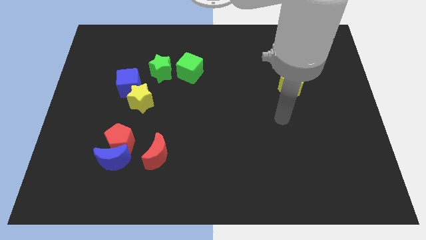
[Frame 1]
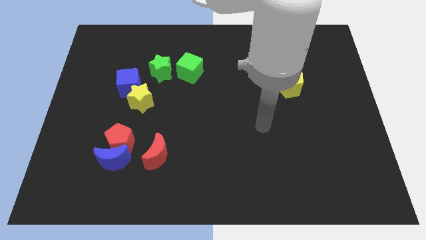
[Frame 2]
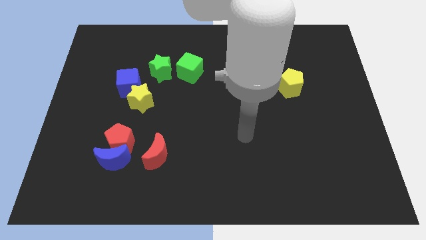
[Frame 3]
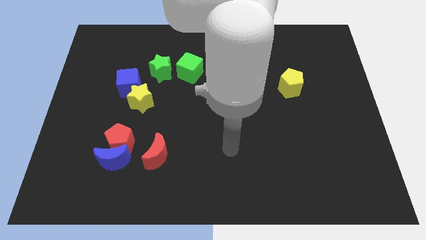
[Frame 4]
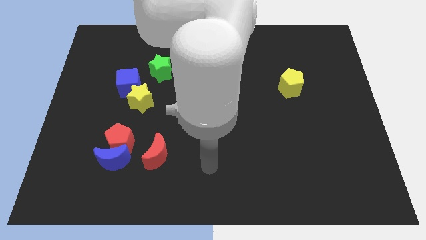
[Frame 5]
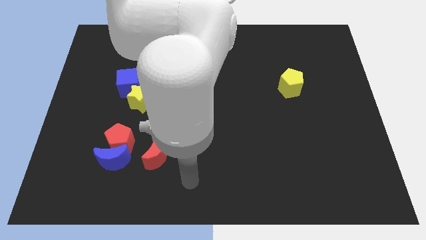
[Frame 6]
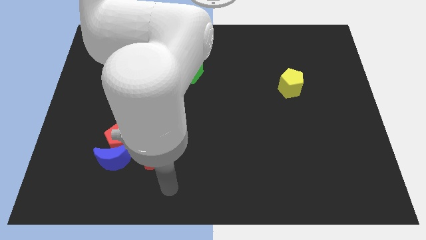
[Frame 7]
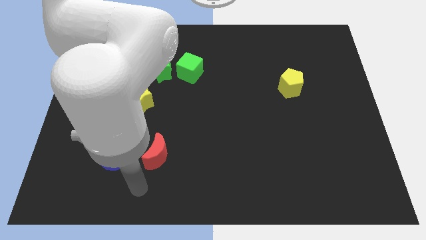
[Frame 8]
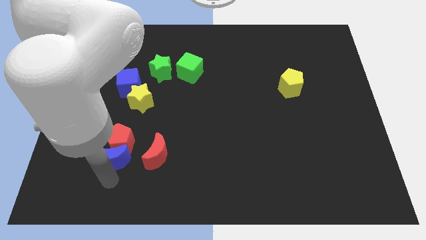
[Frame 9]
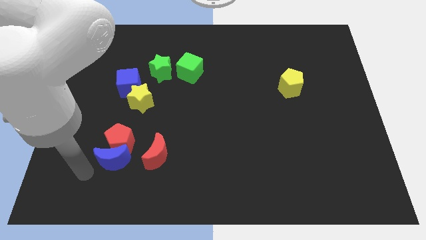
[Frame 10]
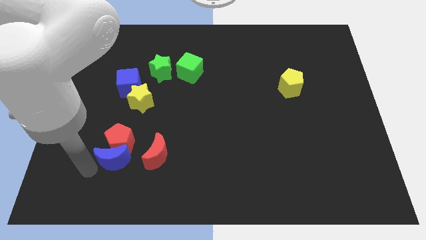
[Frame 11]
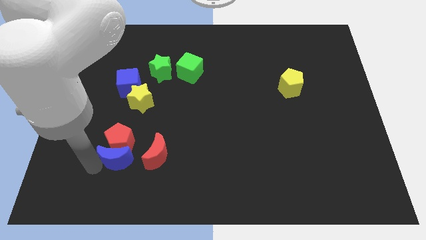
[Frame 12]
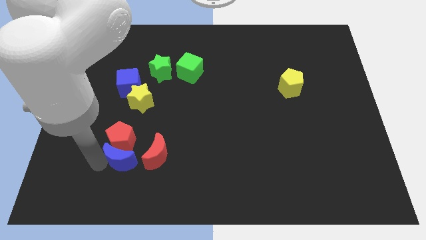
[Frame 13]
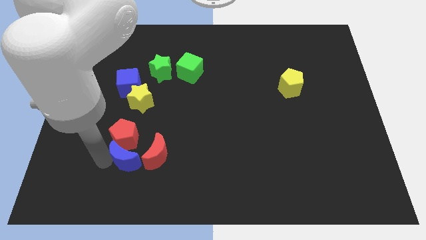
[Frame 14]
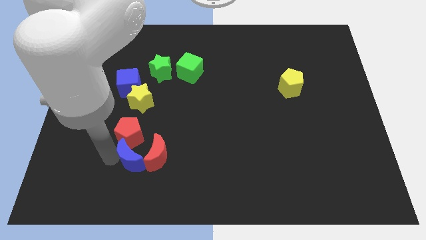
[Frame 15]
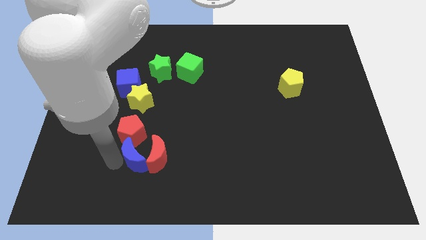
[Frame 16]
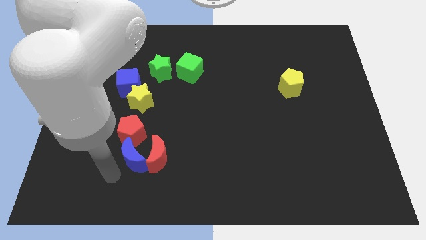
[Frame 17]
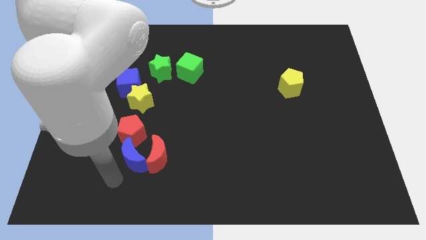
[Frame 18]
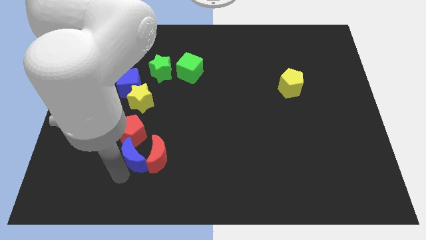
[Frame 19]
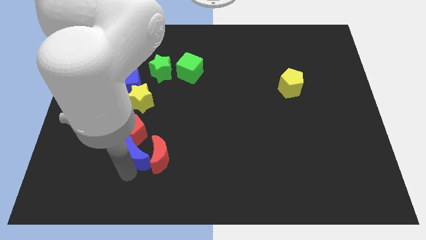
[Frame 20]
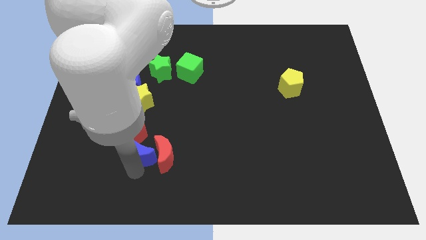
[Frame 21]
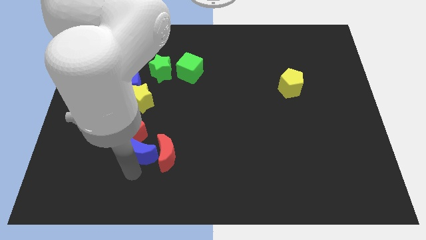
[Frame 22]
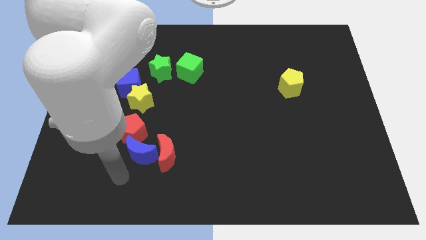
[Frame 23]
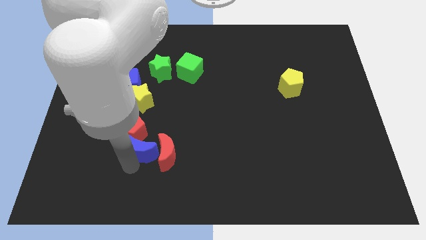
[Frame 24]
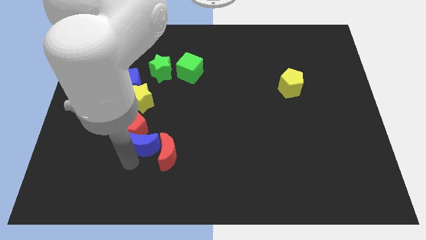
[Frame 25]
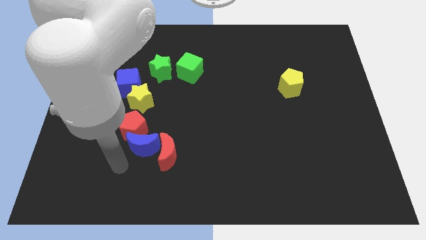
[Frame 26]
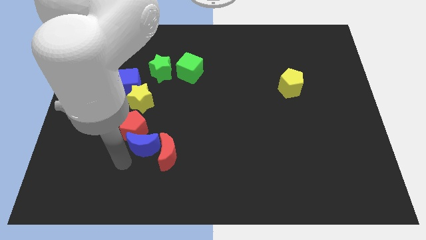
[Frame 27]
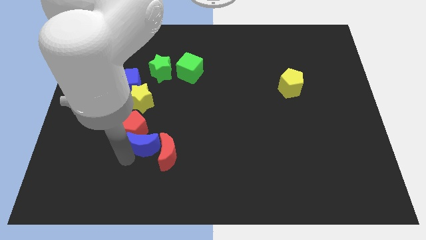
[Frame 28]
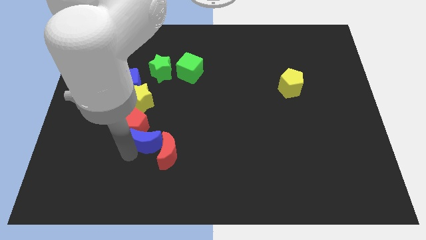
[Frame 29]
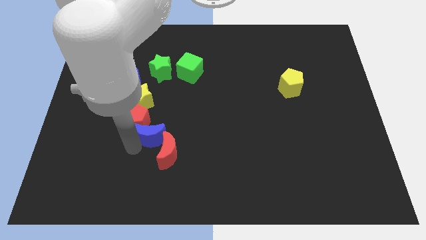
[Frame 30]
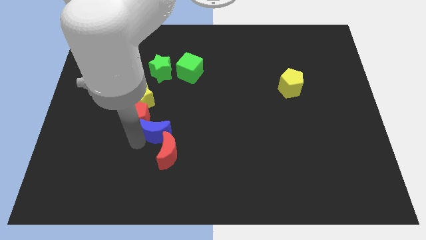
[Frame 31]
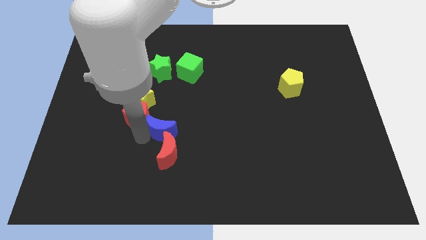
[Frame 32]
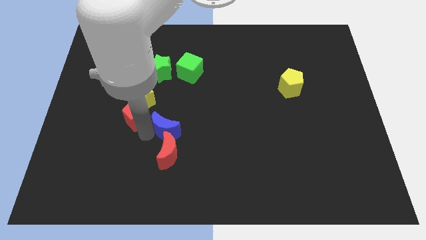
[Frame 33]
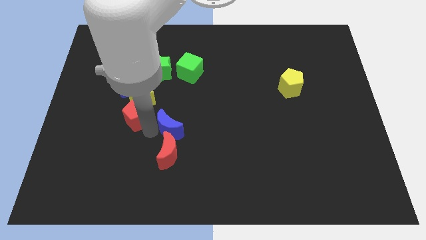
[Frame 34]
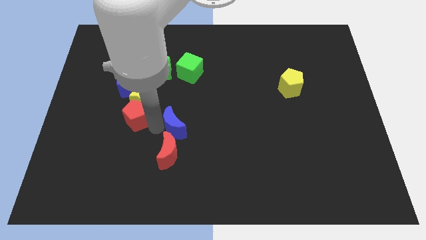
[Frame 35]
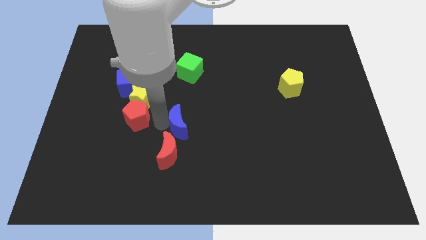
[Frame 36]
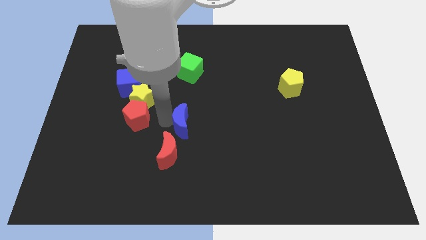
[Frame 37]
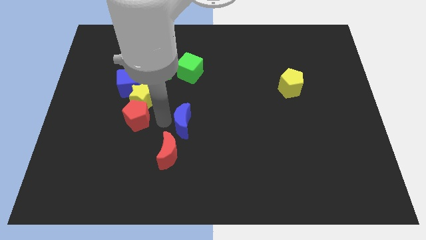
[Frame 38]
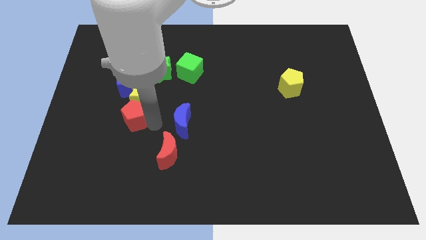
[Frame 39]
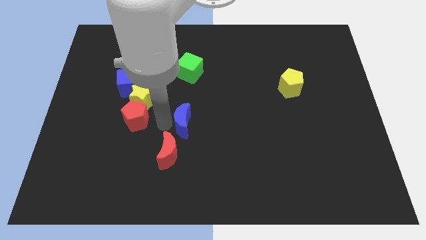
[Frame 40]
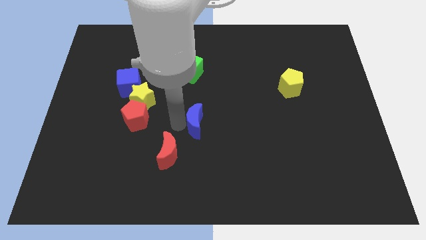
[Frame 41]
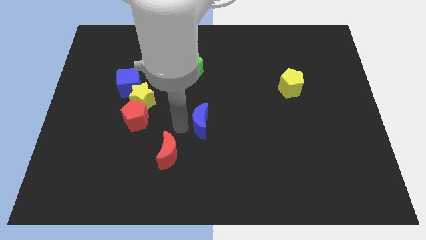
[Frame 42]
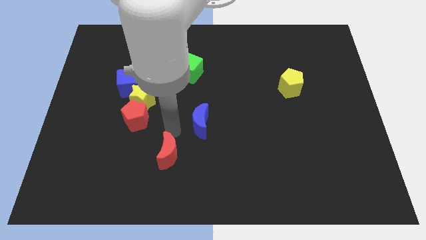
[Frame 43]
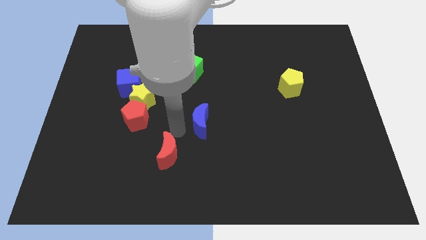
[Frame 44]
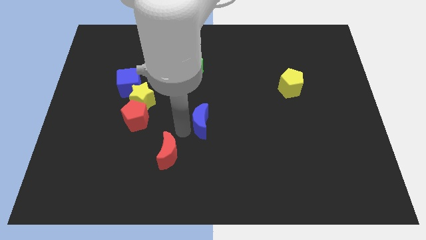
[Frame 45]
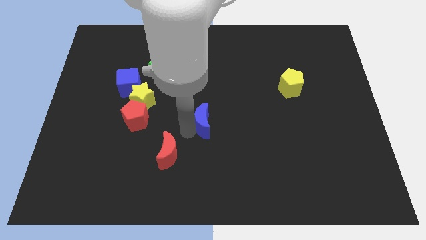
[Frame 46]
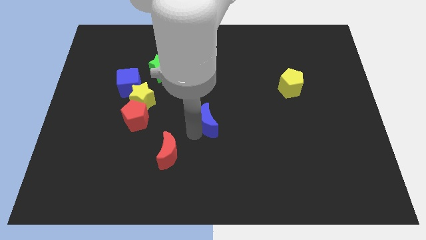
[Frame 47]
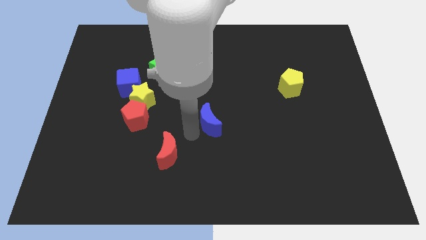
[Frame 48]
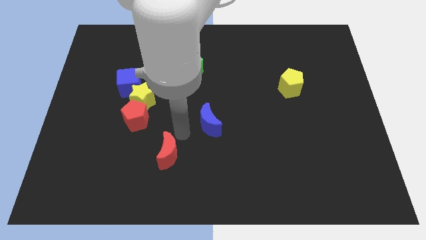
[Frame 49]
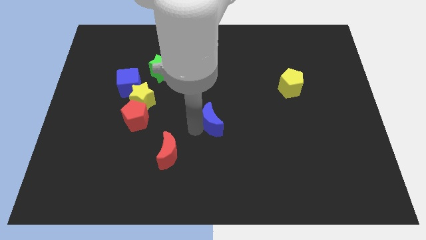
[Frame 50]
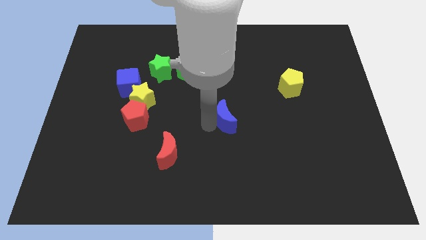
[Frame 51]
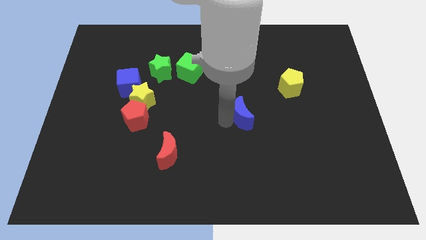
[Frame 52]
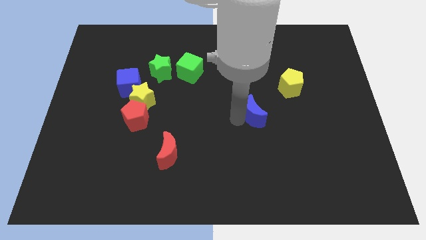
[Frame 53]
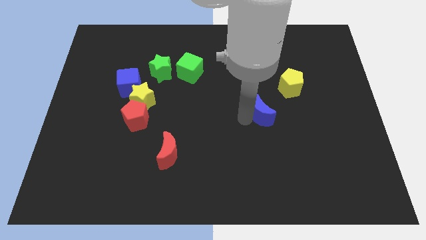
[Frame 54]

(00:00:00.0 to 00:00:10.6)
push the blue moon to the bottom left side of the yellow pentagon

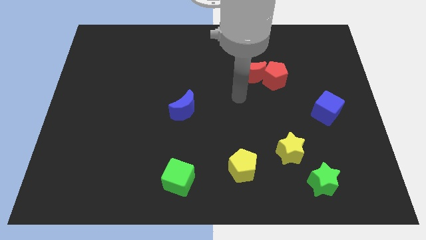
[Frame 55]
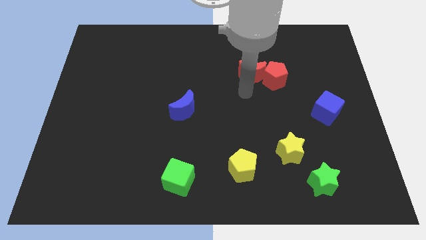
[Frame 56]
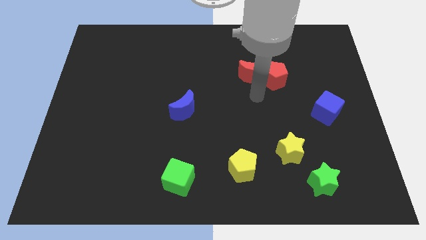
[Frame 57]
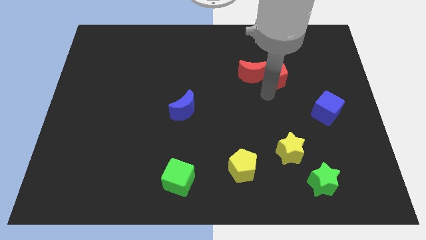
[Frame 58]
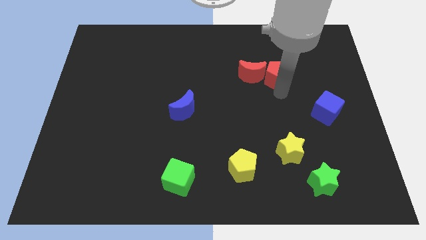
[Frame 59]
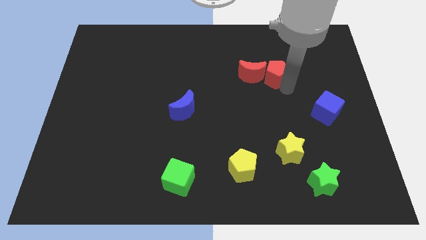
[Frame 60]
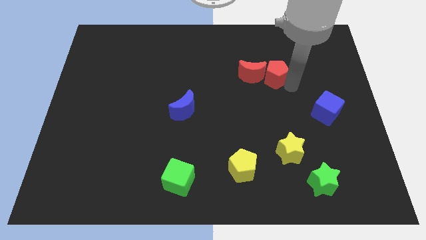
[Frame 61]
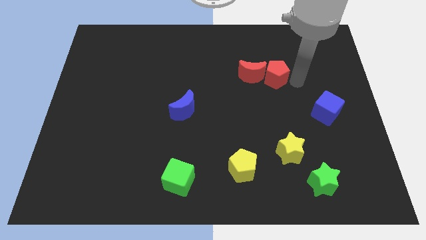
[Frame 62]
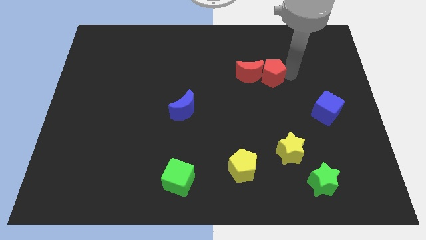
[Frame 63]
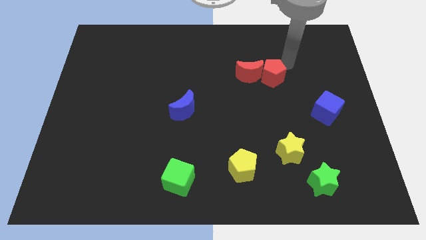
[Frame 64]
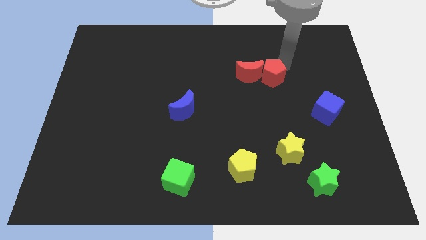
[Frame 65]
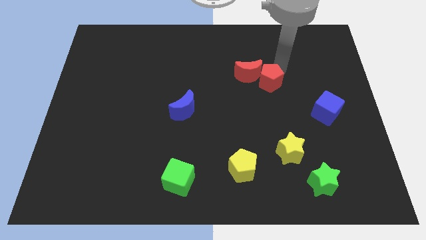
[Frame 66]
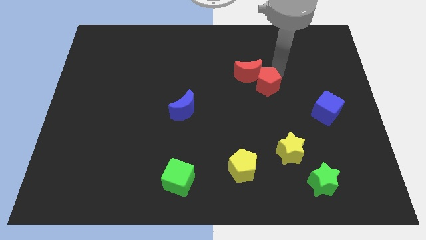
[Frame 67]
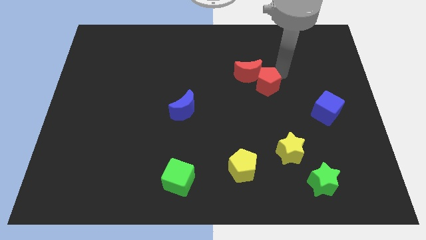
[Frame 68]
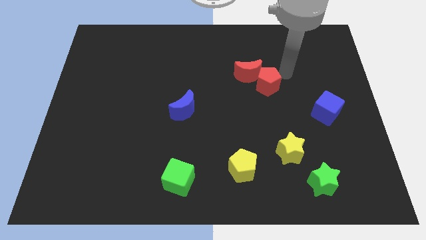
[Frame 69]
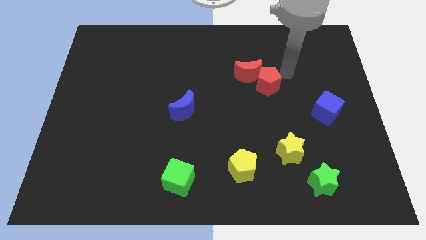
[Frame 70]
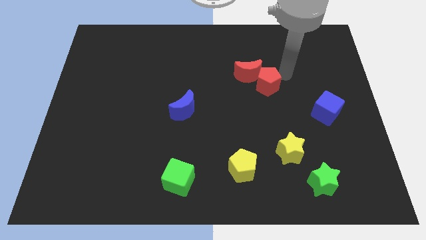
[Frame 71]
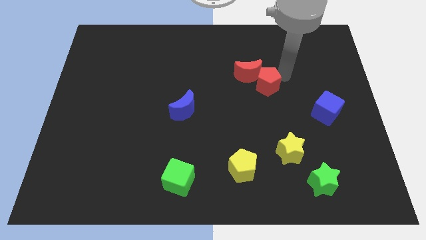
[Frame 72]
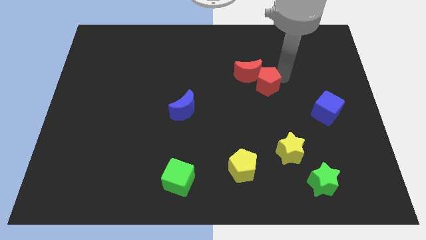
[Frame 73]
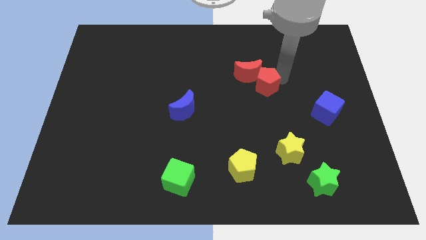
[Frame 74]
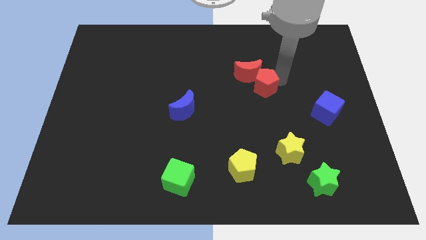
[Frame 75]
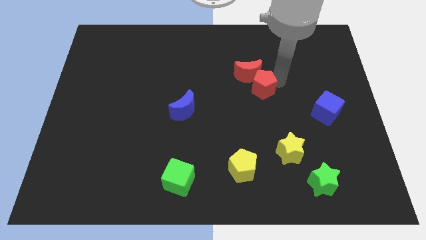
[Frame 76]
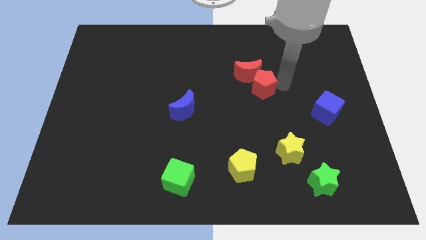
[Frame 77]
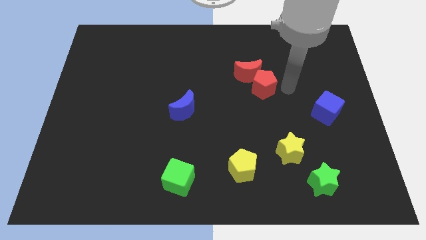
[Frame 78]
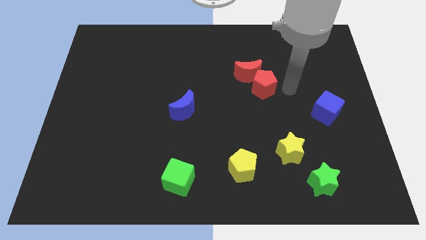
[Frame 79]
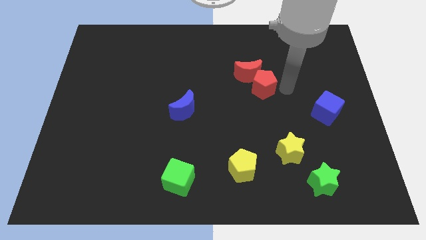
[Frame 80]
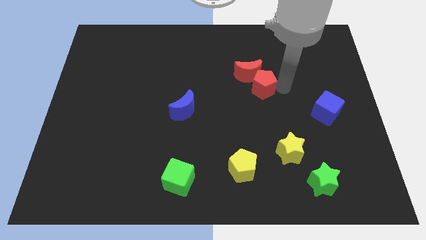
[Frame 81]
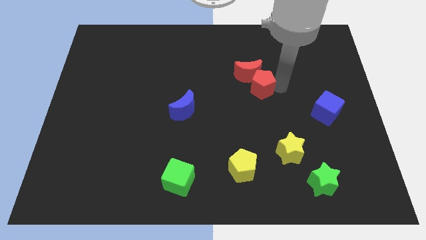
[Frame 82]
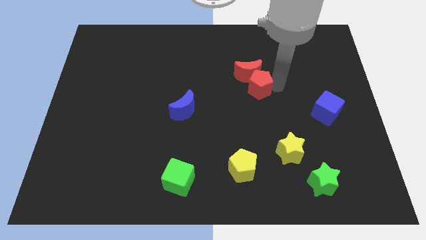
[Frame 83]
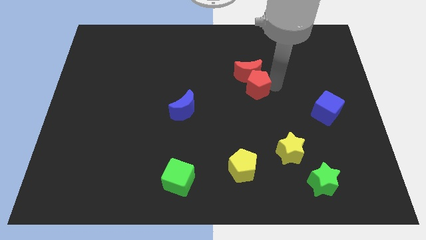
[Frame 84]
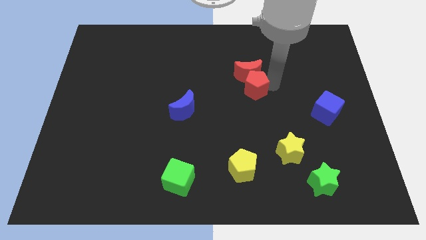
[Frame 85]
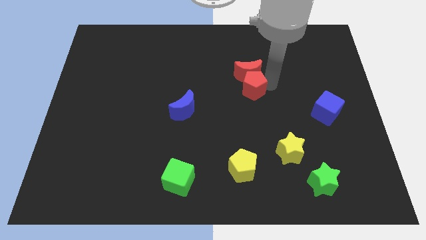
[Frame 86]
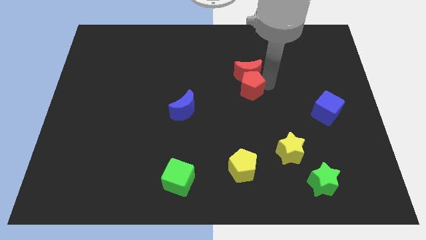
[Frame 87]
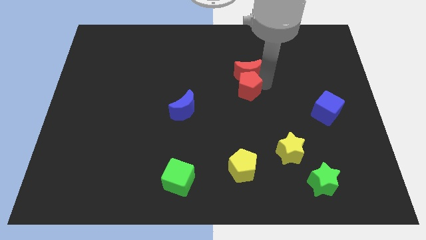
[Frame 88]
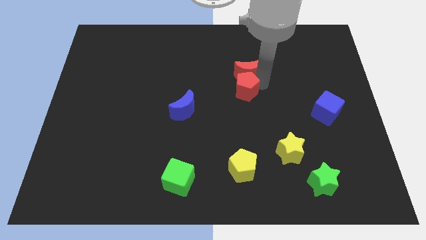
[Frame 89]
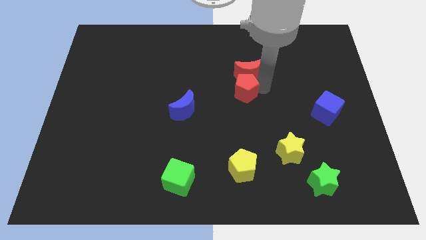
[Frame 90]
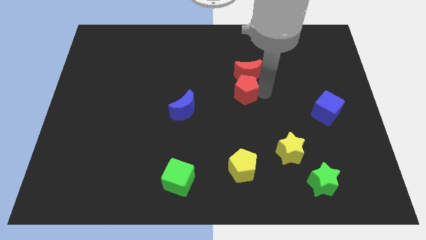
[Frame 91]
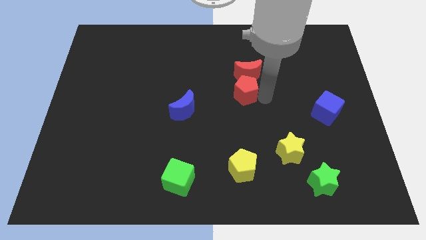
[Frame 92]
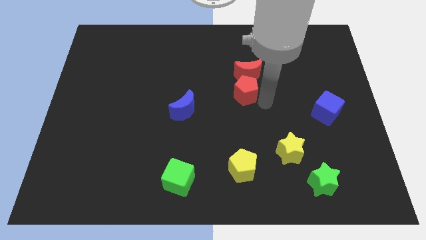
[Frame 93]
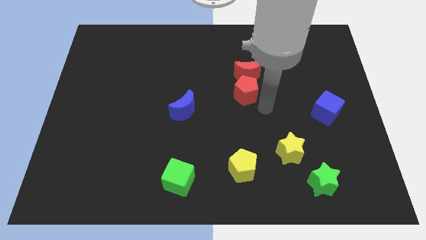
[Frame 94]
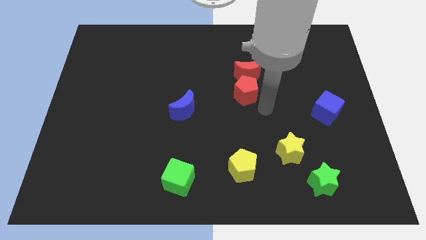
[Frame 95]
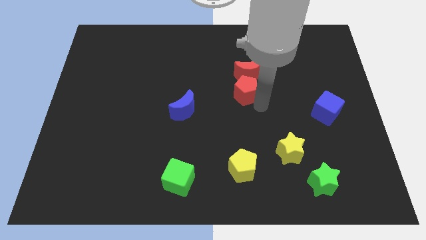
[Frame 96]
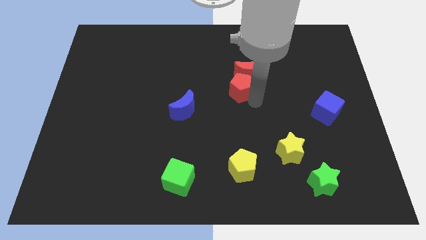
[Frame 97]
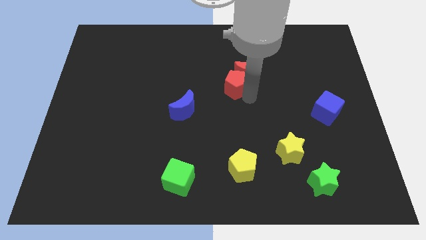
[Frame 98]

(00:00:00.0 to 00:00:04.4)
slide the red pentagon to the left side of the red moon
